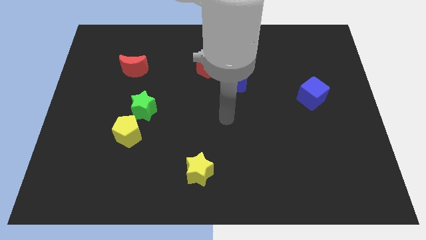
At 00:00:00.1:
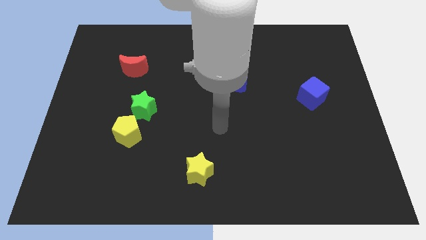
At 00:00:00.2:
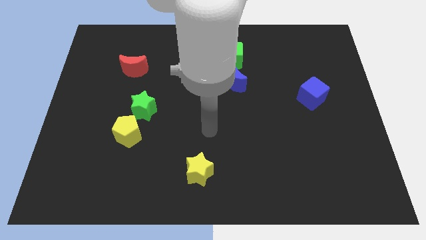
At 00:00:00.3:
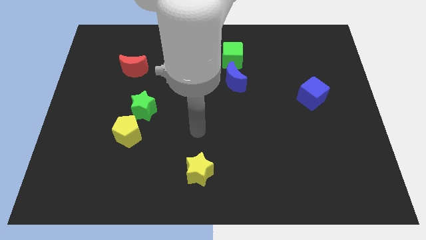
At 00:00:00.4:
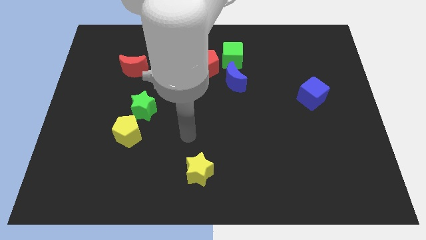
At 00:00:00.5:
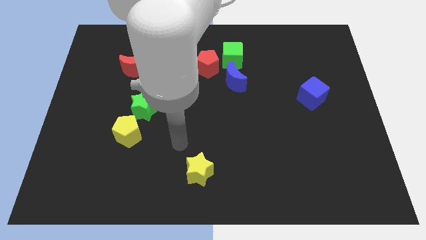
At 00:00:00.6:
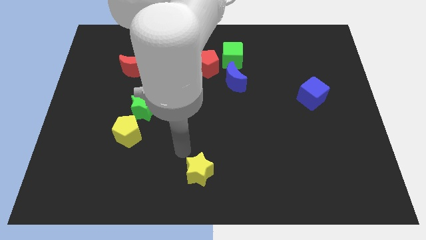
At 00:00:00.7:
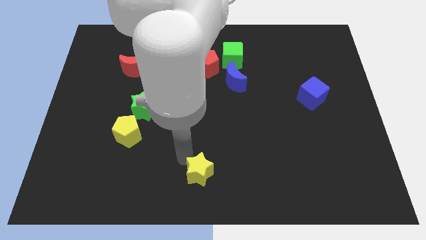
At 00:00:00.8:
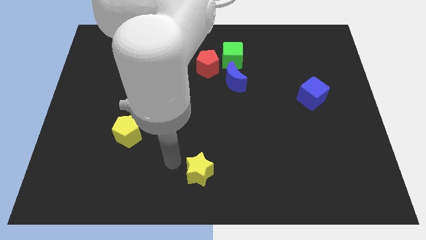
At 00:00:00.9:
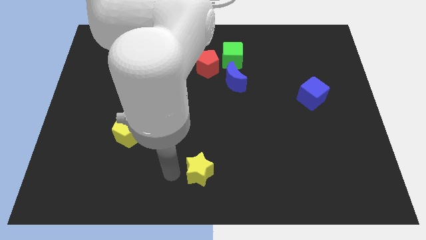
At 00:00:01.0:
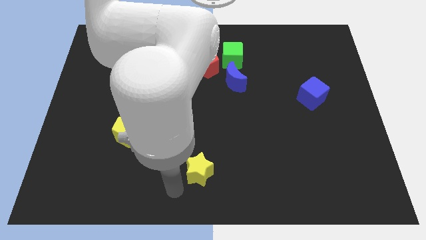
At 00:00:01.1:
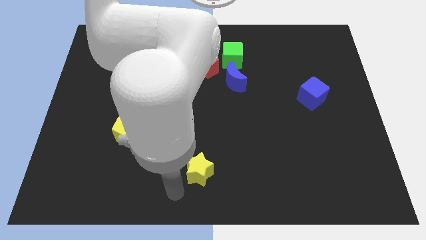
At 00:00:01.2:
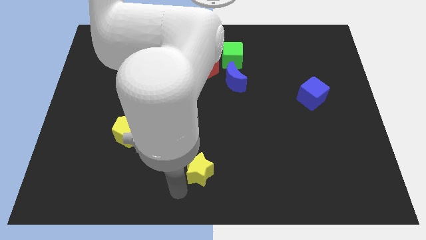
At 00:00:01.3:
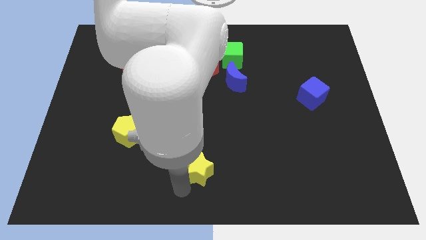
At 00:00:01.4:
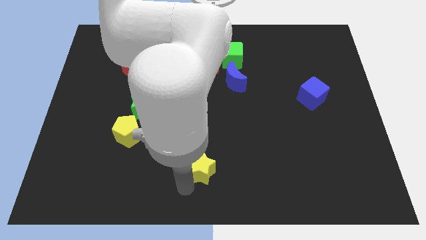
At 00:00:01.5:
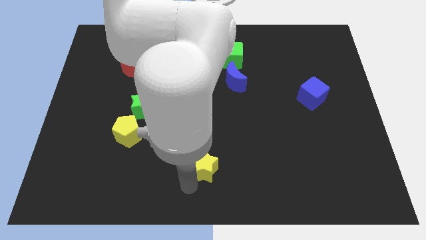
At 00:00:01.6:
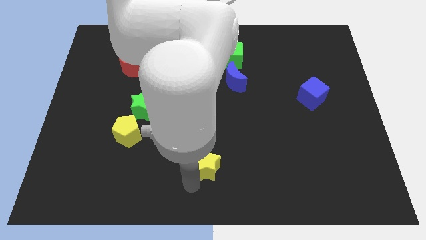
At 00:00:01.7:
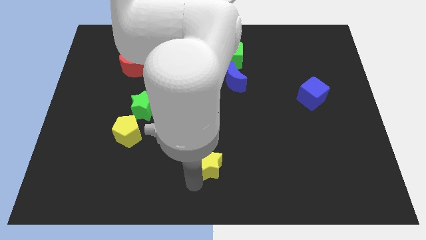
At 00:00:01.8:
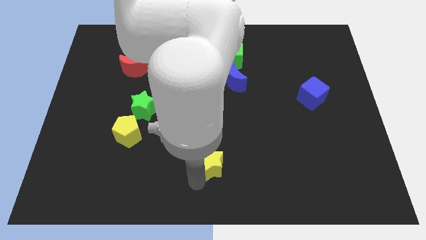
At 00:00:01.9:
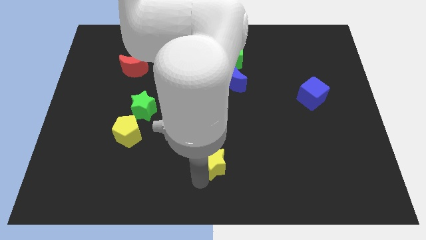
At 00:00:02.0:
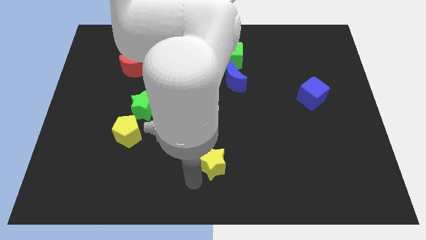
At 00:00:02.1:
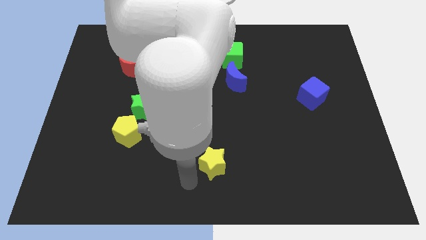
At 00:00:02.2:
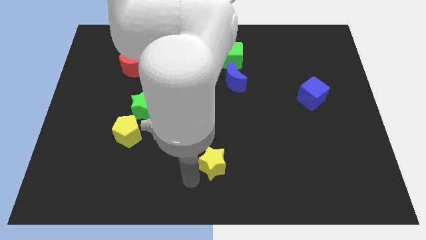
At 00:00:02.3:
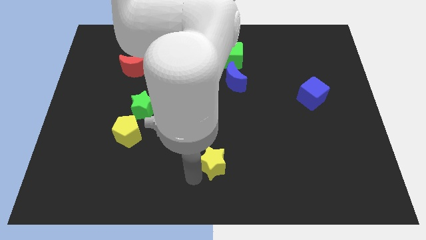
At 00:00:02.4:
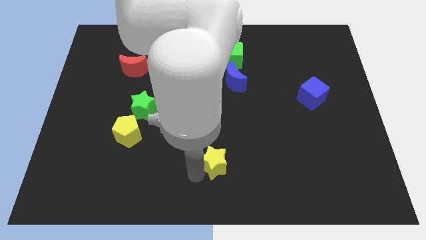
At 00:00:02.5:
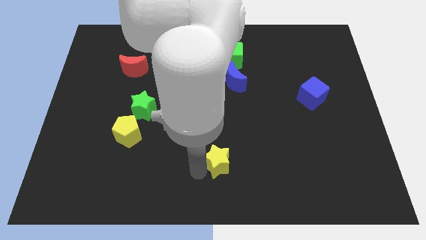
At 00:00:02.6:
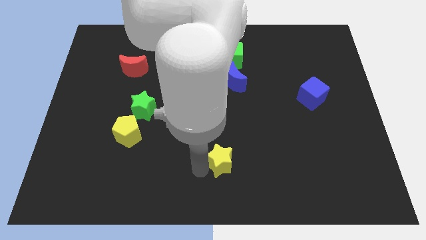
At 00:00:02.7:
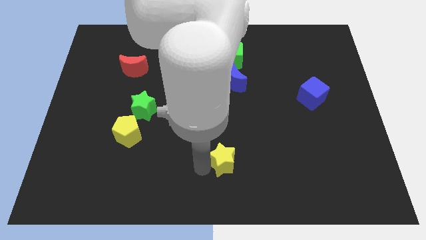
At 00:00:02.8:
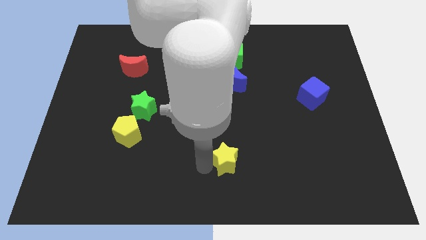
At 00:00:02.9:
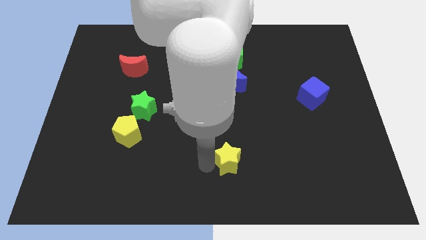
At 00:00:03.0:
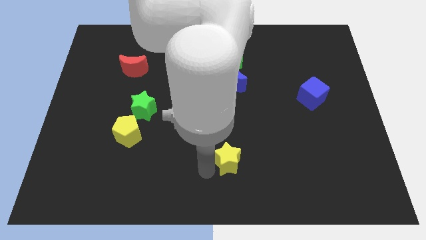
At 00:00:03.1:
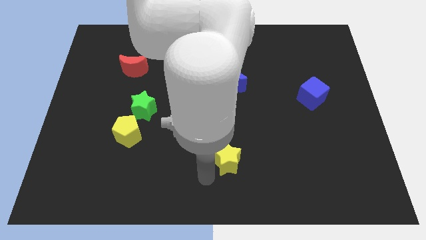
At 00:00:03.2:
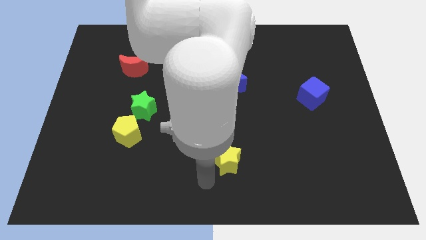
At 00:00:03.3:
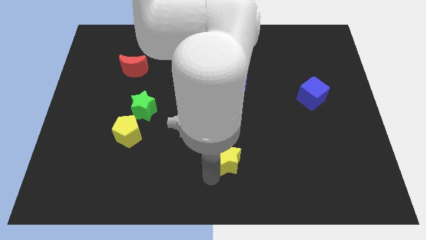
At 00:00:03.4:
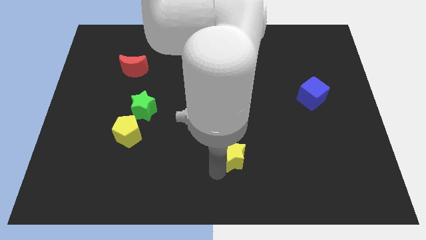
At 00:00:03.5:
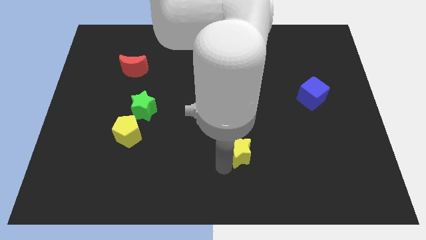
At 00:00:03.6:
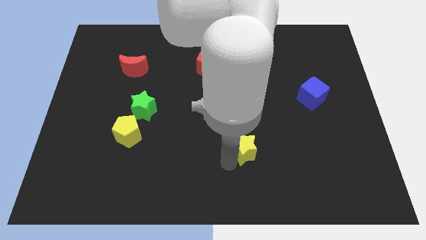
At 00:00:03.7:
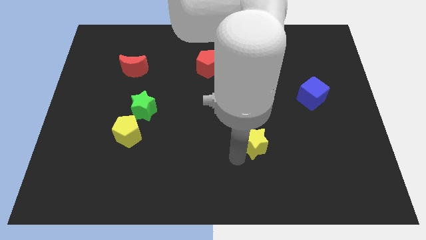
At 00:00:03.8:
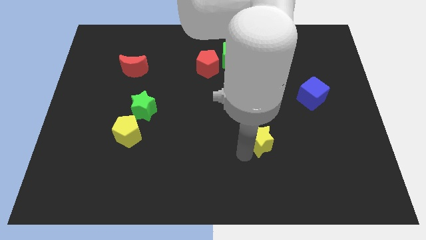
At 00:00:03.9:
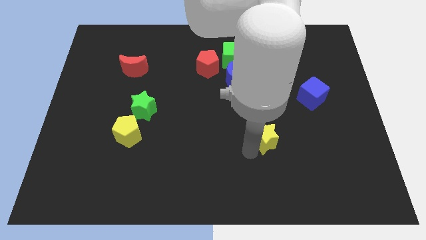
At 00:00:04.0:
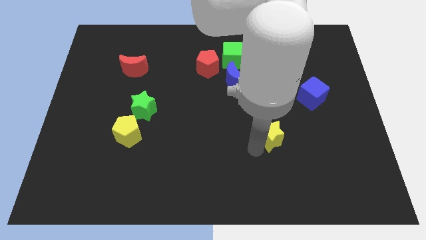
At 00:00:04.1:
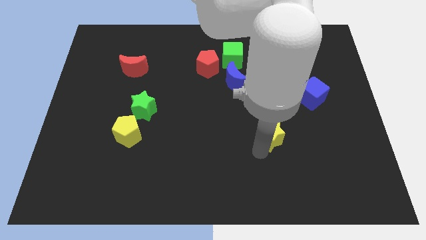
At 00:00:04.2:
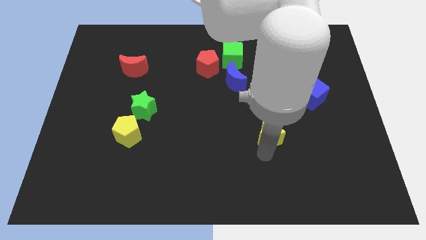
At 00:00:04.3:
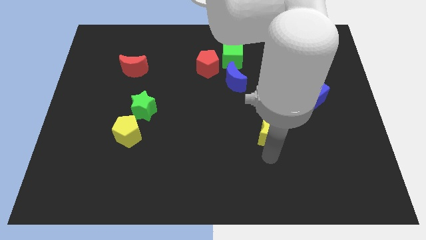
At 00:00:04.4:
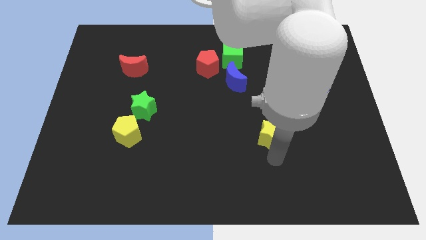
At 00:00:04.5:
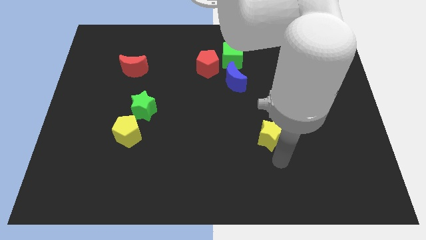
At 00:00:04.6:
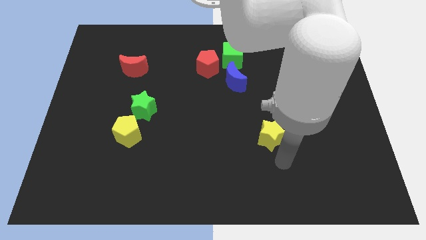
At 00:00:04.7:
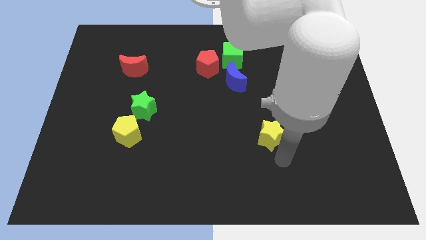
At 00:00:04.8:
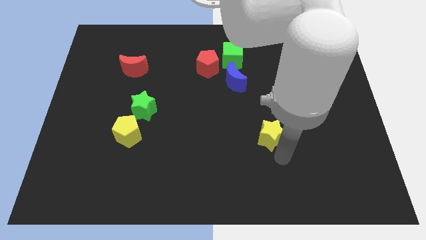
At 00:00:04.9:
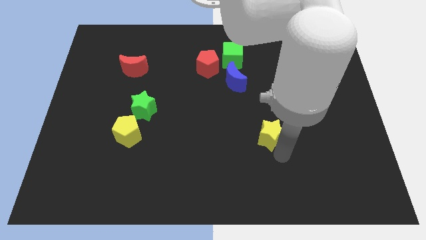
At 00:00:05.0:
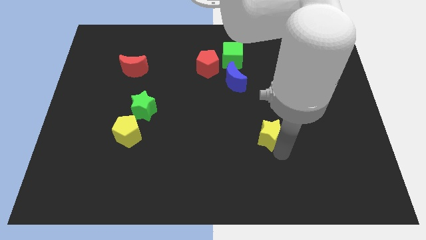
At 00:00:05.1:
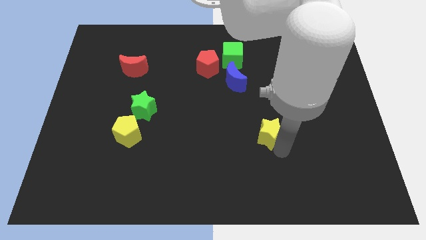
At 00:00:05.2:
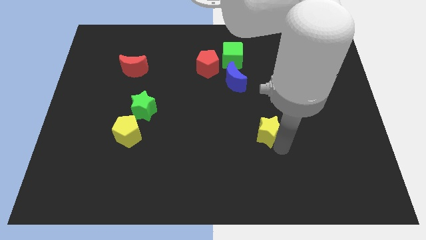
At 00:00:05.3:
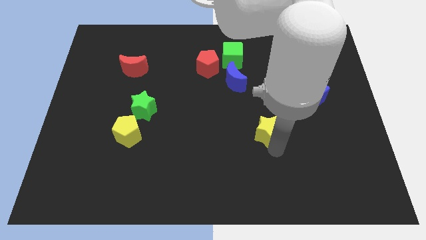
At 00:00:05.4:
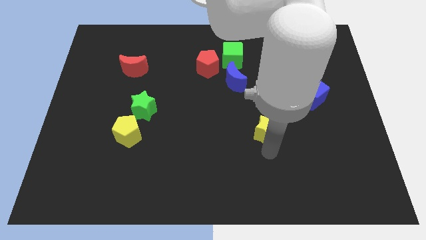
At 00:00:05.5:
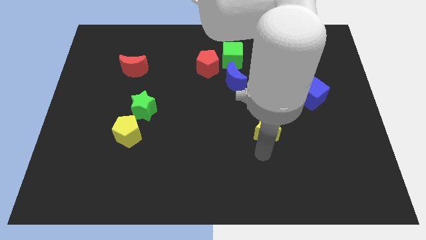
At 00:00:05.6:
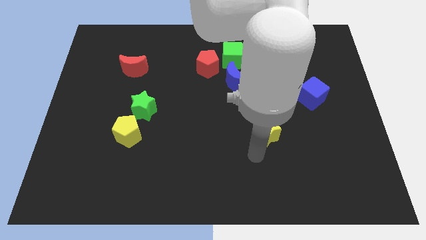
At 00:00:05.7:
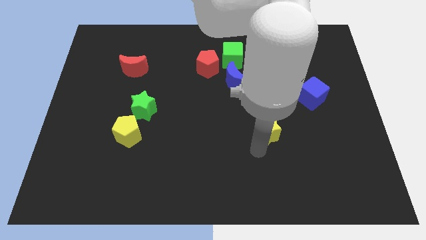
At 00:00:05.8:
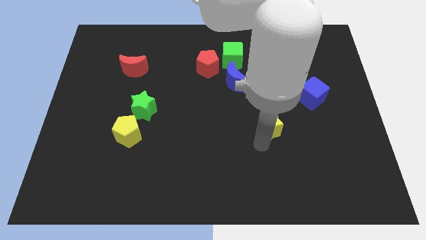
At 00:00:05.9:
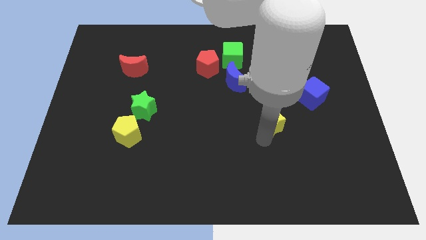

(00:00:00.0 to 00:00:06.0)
move the yellow star diagonally upwards and to the right

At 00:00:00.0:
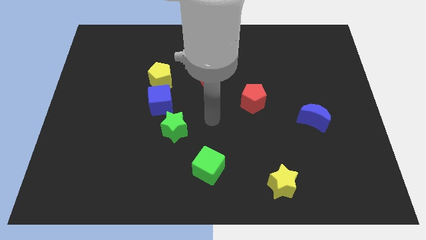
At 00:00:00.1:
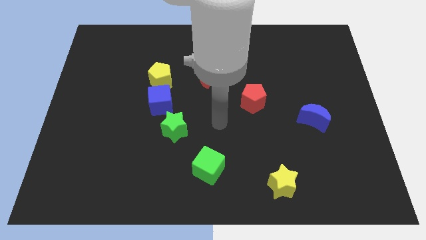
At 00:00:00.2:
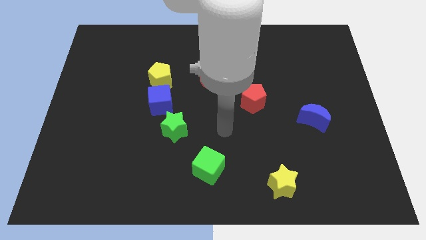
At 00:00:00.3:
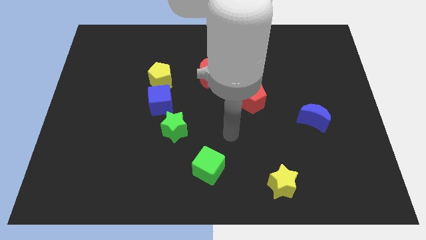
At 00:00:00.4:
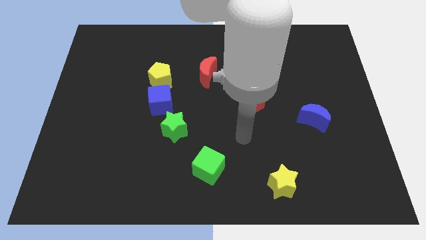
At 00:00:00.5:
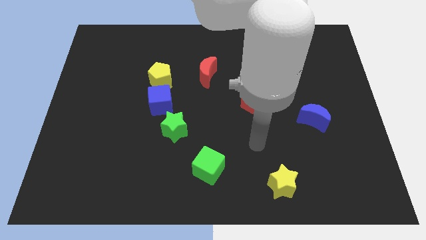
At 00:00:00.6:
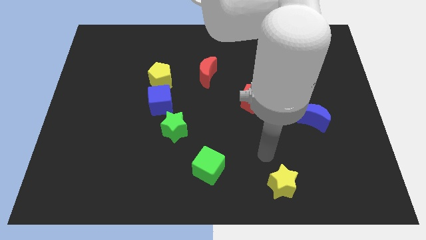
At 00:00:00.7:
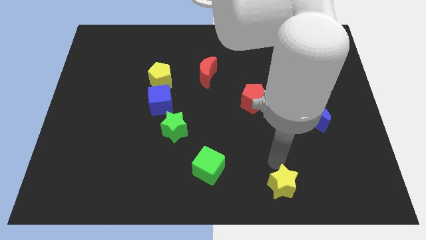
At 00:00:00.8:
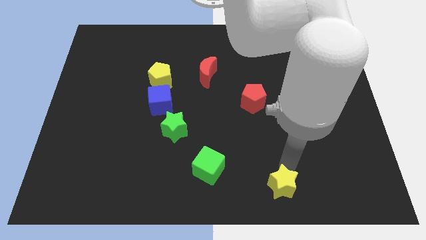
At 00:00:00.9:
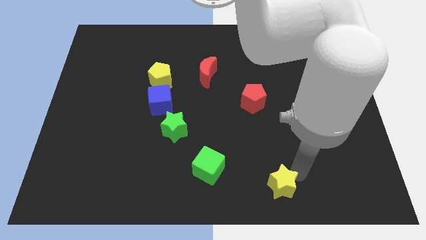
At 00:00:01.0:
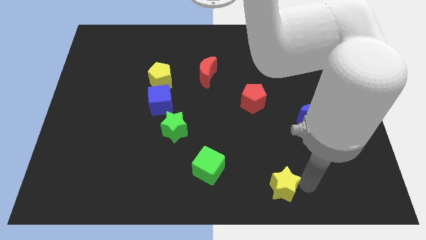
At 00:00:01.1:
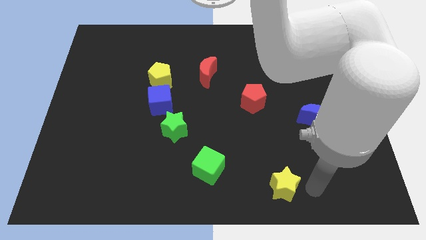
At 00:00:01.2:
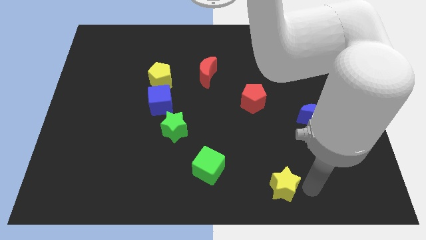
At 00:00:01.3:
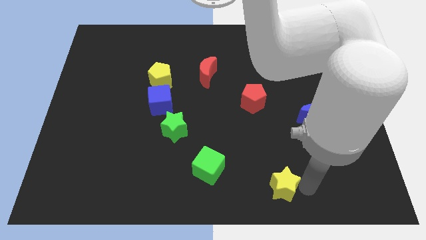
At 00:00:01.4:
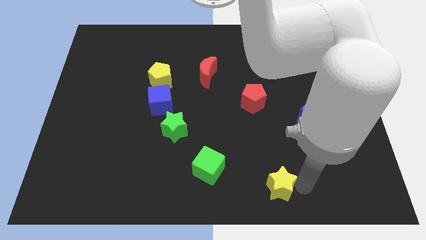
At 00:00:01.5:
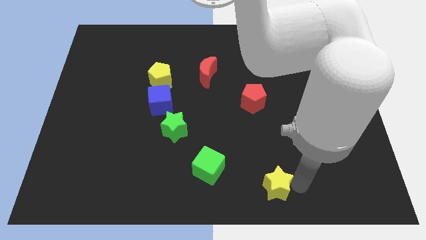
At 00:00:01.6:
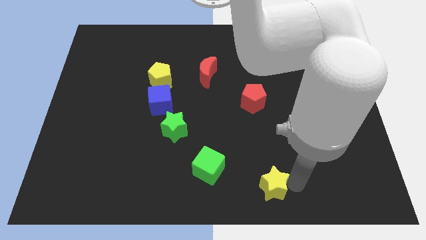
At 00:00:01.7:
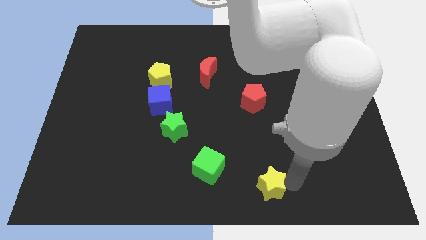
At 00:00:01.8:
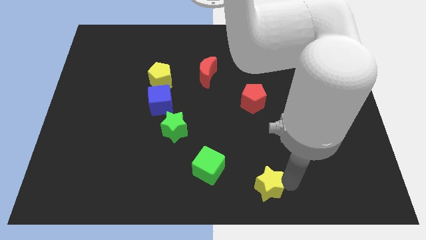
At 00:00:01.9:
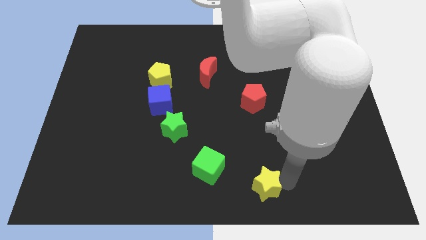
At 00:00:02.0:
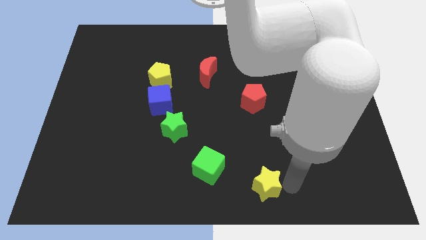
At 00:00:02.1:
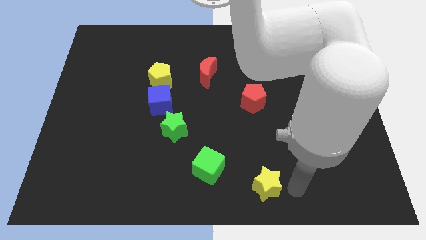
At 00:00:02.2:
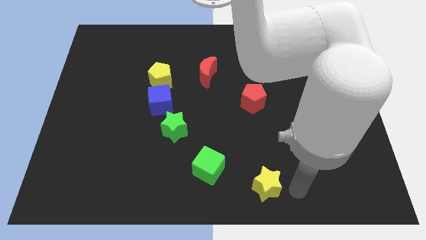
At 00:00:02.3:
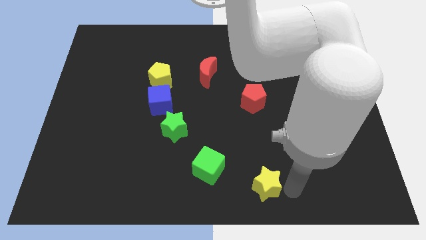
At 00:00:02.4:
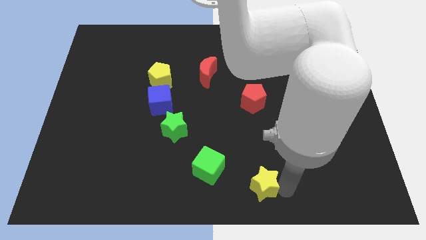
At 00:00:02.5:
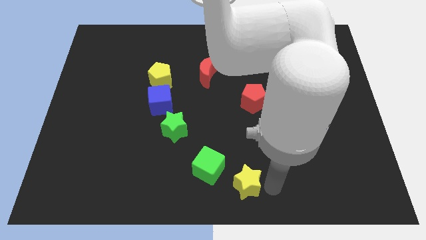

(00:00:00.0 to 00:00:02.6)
push the yellow star to the left slightly
